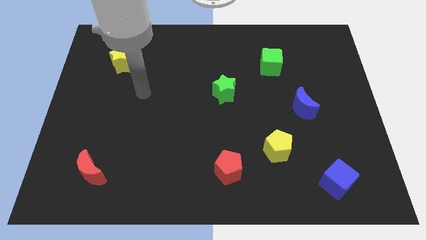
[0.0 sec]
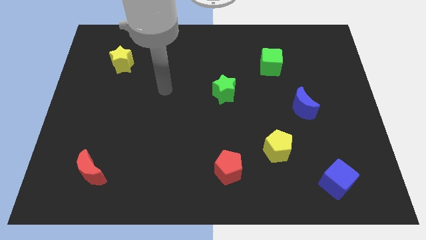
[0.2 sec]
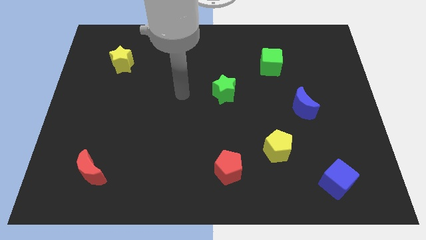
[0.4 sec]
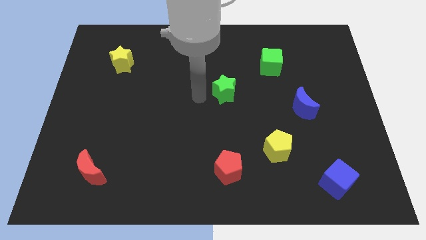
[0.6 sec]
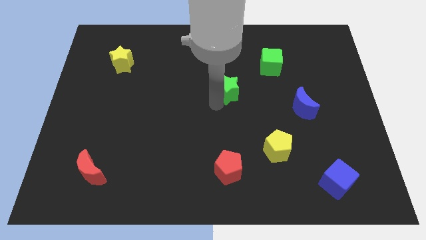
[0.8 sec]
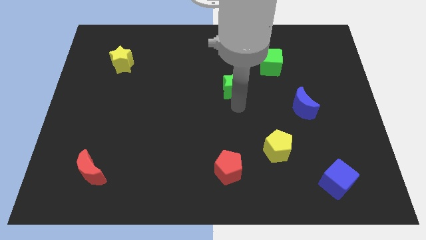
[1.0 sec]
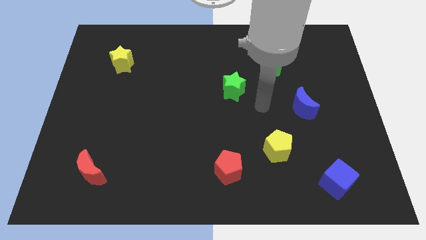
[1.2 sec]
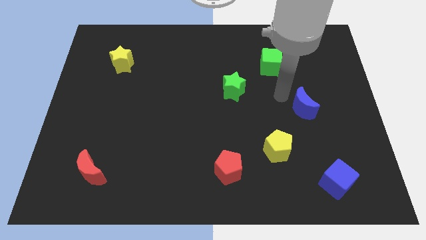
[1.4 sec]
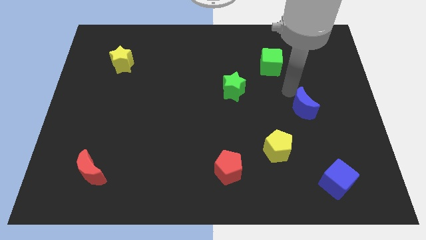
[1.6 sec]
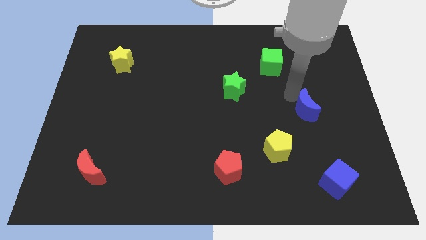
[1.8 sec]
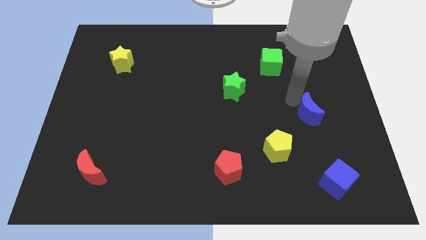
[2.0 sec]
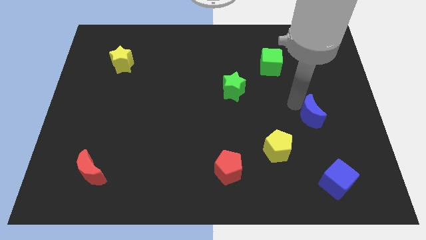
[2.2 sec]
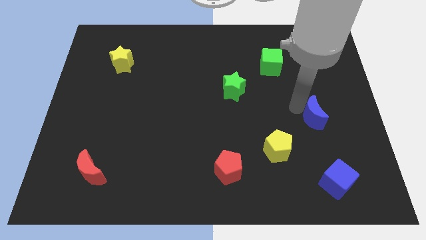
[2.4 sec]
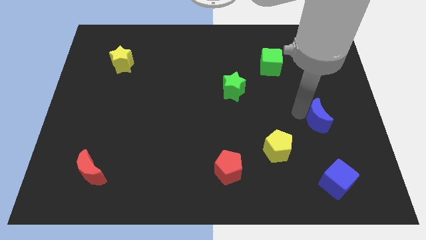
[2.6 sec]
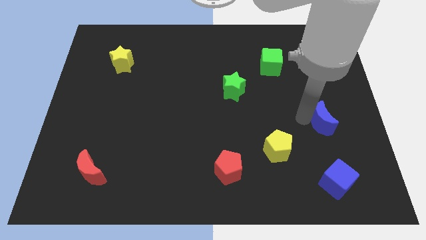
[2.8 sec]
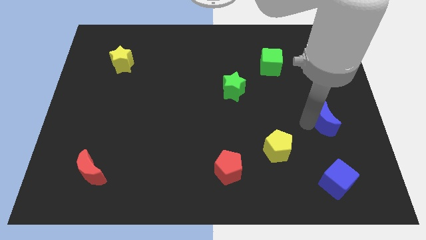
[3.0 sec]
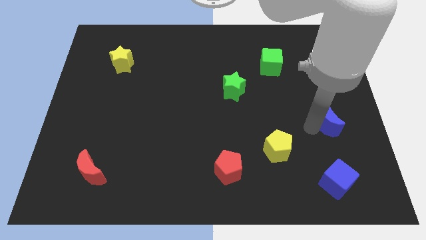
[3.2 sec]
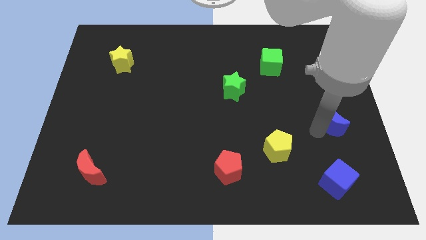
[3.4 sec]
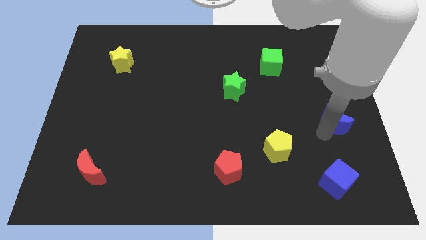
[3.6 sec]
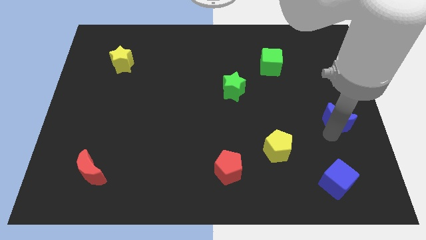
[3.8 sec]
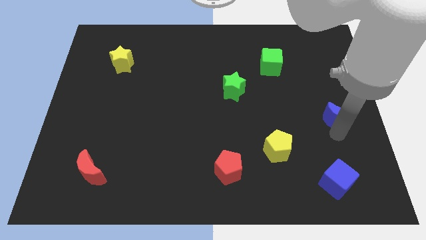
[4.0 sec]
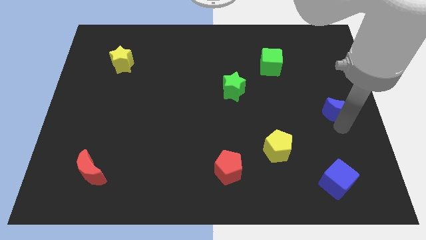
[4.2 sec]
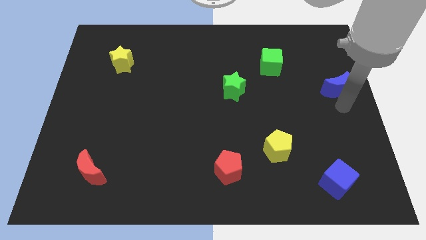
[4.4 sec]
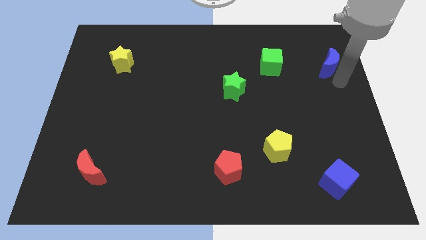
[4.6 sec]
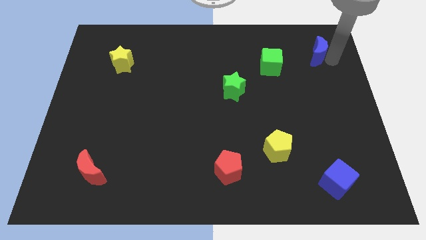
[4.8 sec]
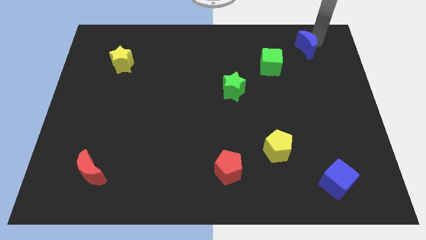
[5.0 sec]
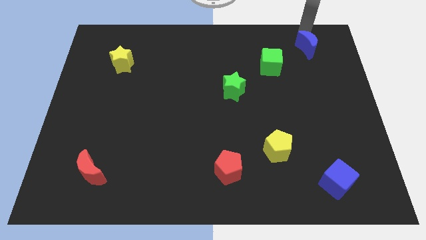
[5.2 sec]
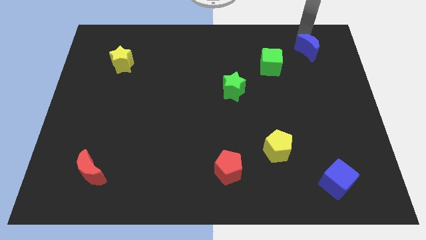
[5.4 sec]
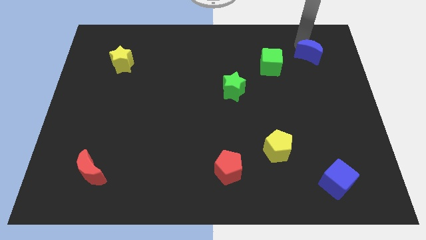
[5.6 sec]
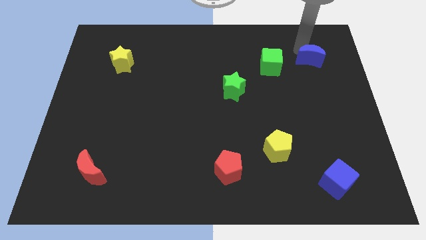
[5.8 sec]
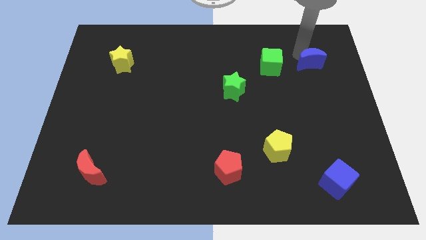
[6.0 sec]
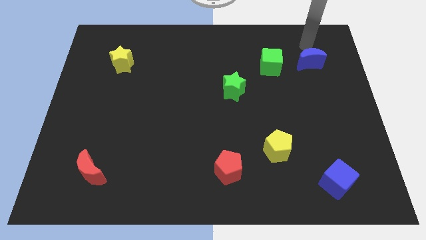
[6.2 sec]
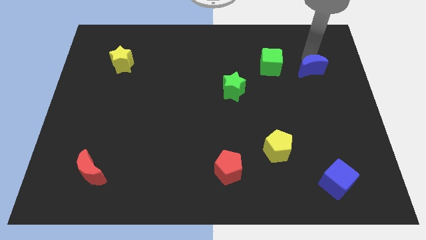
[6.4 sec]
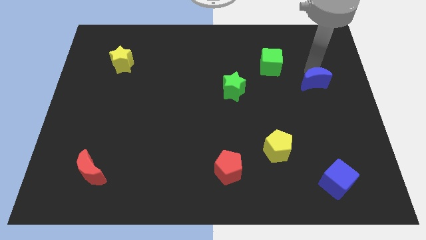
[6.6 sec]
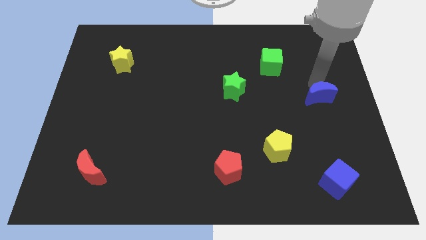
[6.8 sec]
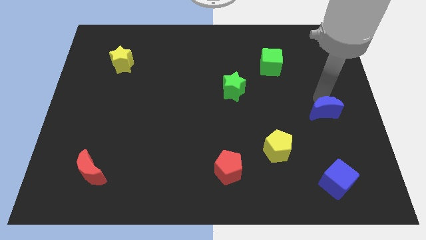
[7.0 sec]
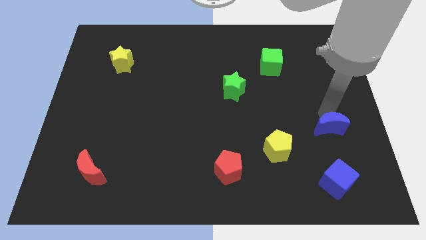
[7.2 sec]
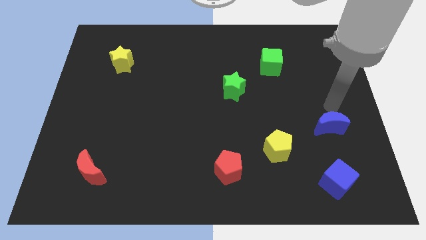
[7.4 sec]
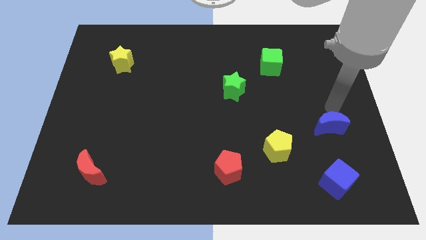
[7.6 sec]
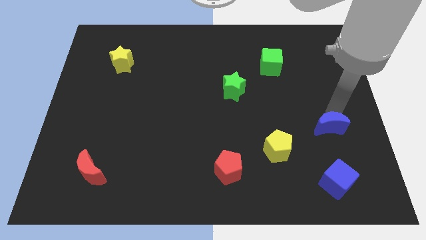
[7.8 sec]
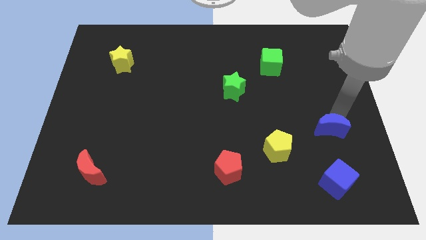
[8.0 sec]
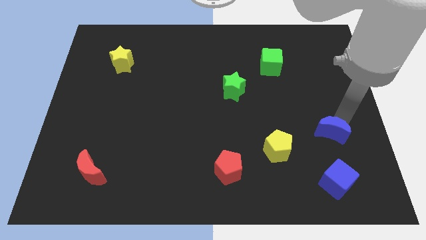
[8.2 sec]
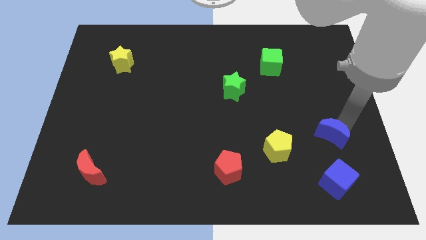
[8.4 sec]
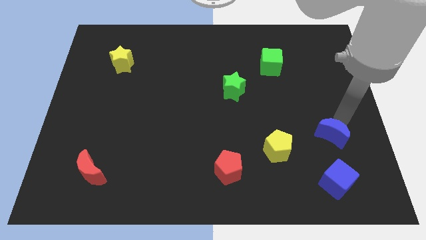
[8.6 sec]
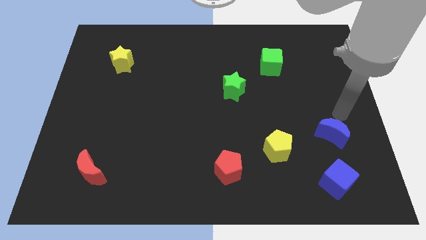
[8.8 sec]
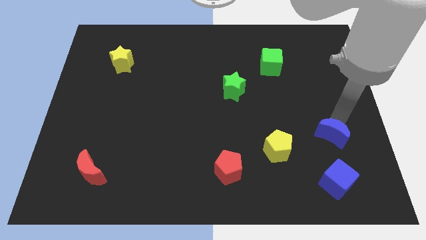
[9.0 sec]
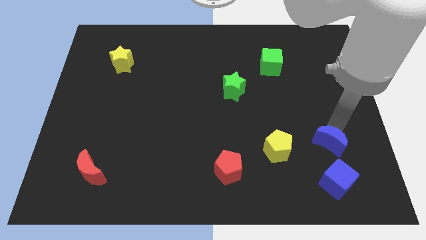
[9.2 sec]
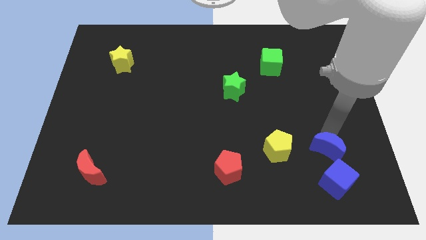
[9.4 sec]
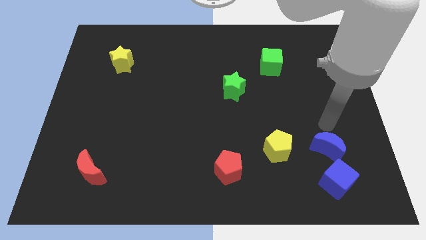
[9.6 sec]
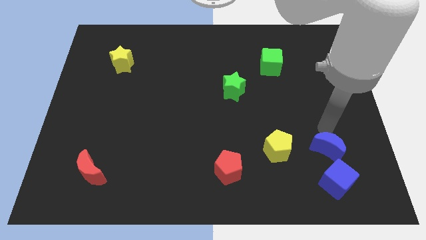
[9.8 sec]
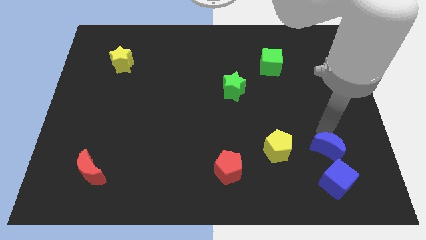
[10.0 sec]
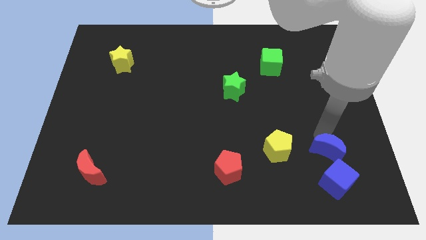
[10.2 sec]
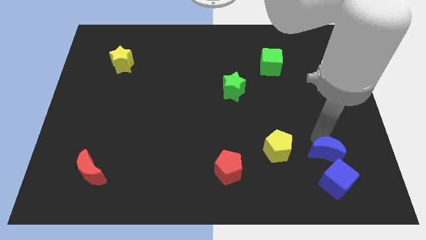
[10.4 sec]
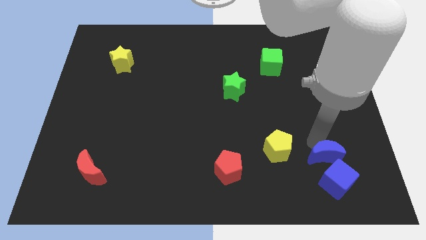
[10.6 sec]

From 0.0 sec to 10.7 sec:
slide the blue moon close to the blue cube

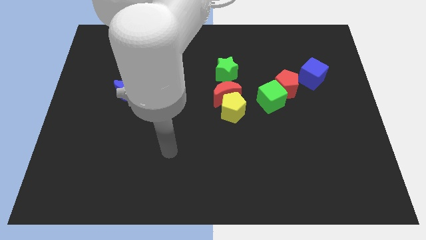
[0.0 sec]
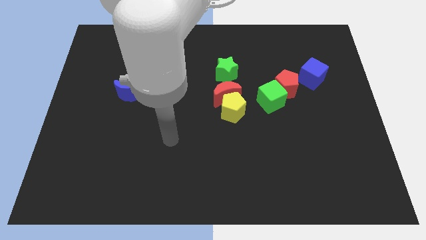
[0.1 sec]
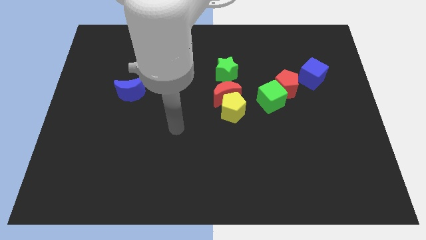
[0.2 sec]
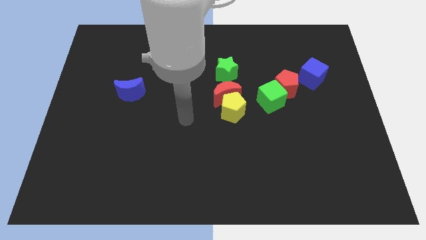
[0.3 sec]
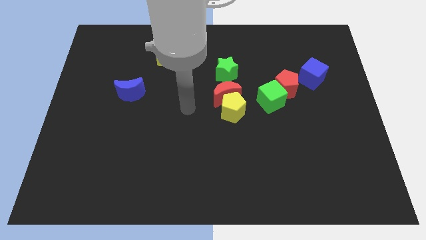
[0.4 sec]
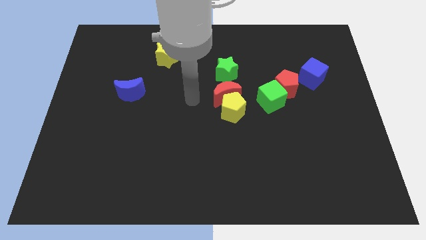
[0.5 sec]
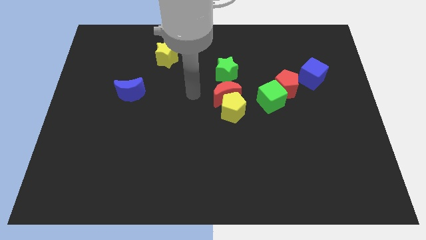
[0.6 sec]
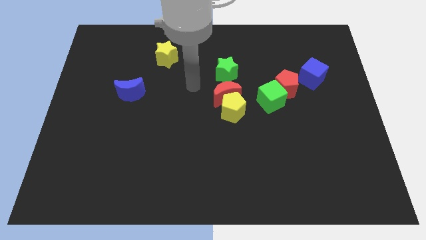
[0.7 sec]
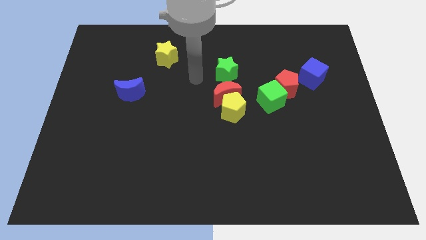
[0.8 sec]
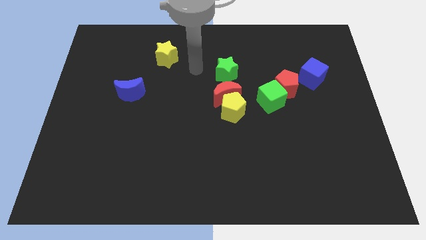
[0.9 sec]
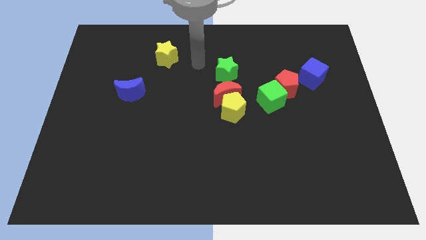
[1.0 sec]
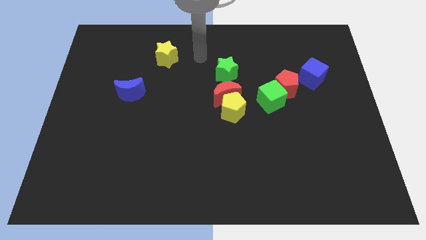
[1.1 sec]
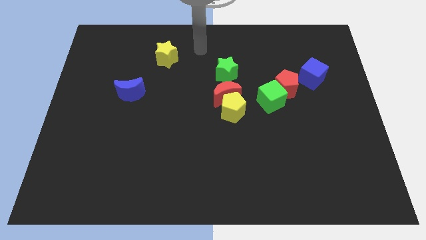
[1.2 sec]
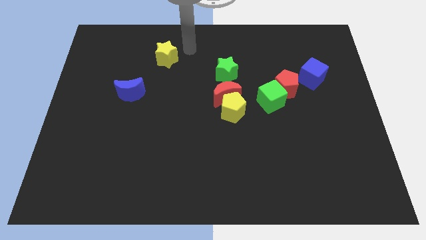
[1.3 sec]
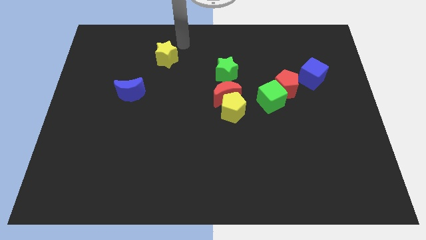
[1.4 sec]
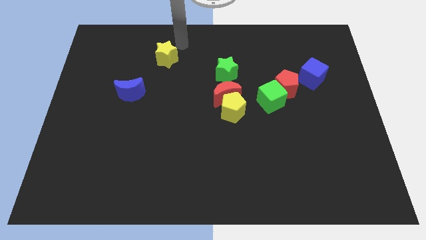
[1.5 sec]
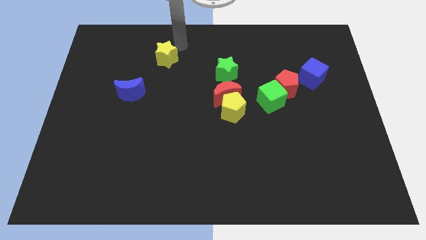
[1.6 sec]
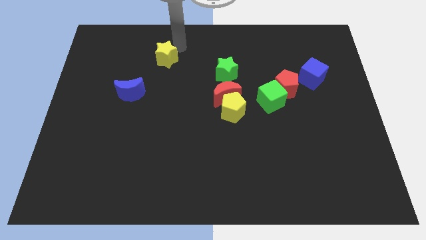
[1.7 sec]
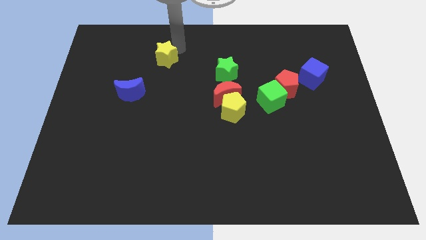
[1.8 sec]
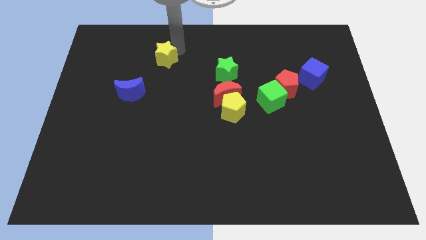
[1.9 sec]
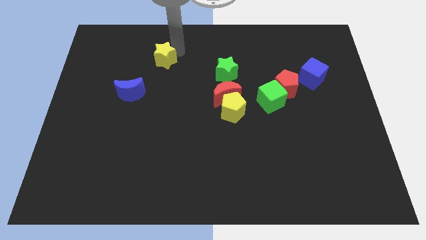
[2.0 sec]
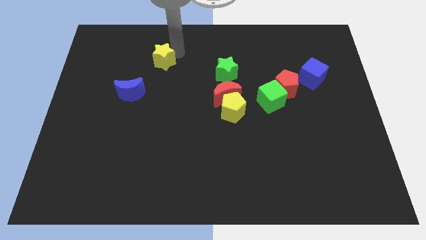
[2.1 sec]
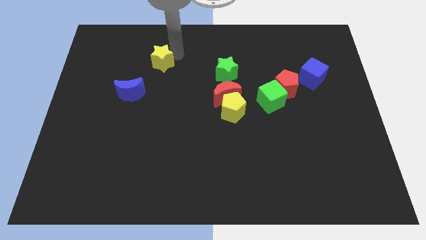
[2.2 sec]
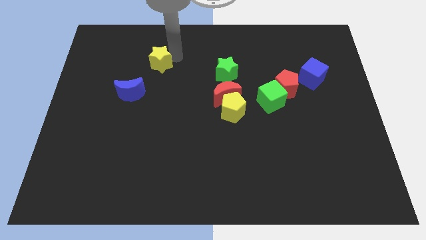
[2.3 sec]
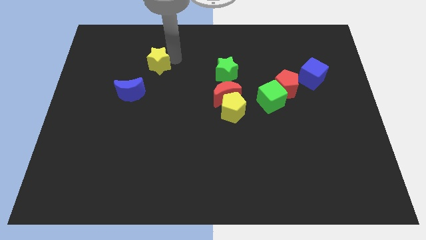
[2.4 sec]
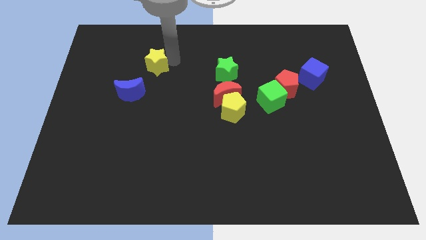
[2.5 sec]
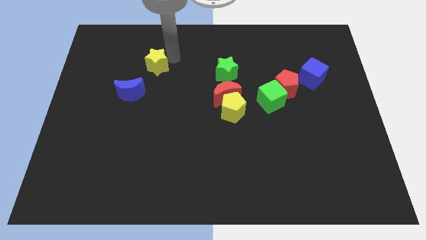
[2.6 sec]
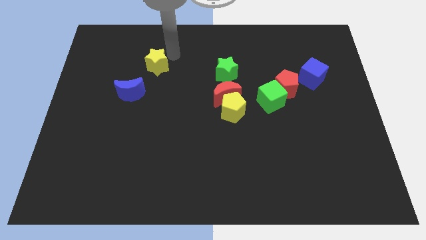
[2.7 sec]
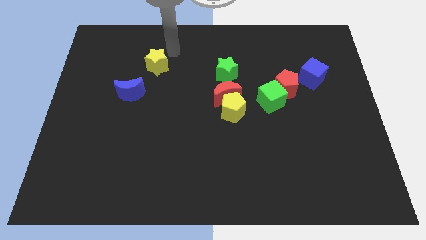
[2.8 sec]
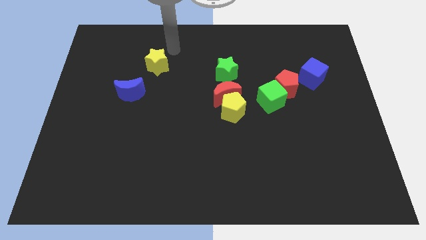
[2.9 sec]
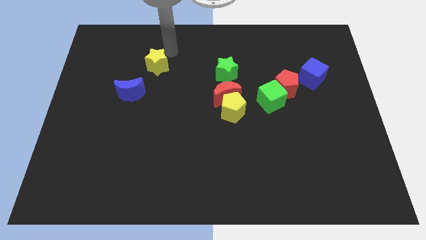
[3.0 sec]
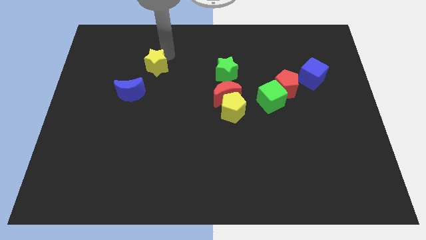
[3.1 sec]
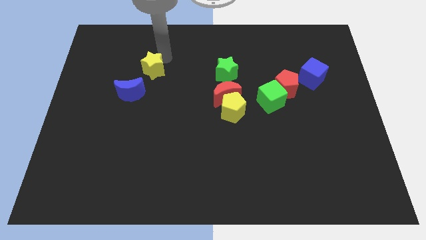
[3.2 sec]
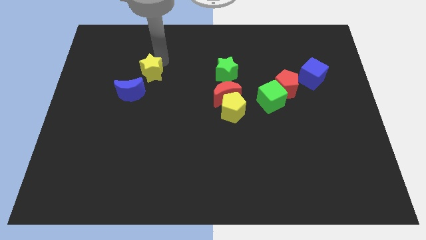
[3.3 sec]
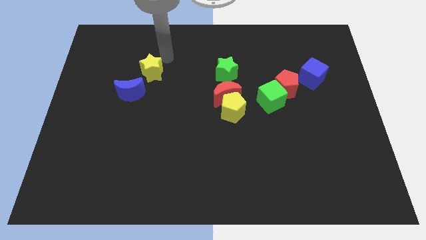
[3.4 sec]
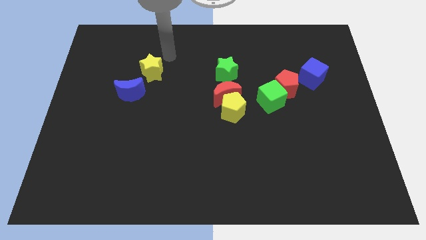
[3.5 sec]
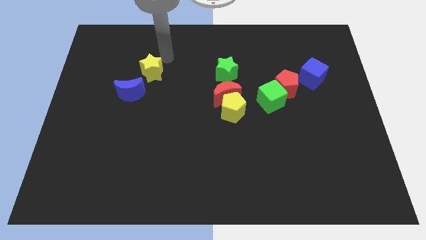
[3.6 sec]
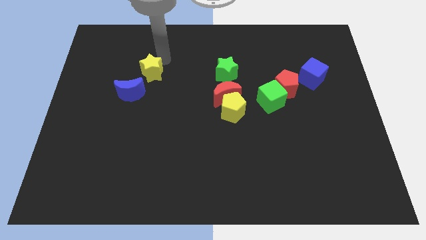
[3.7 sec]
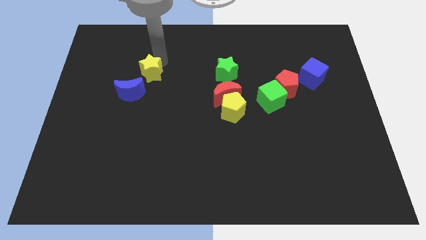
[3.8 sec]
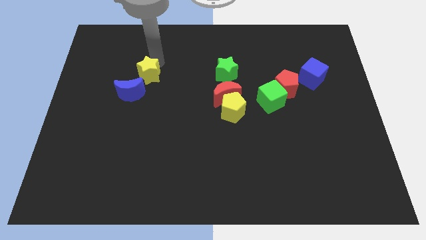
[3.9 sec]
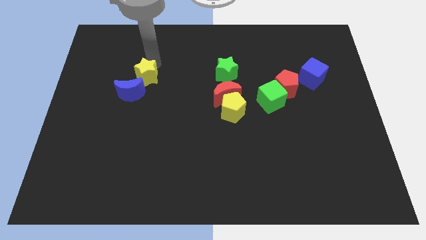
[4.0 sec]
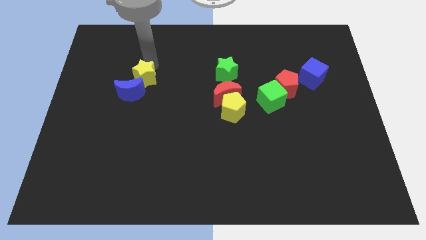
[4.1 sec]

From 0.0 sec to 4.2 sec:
push the yellow star towards the blue moon
